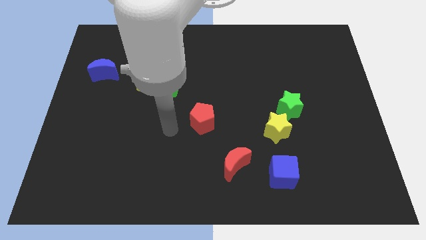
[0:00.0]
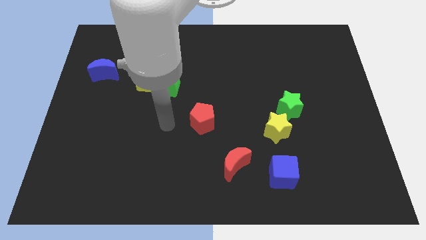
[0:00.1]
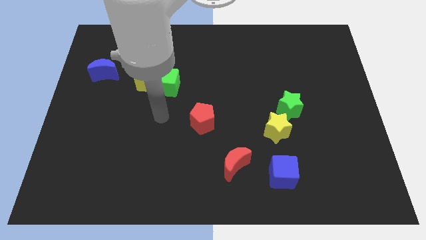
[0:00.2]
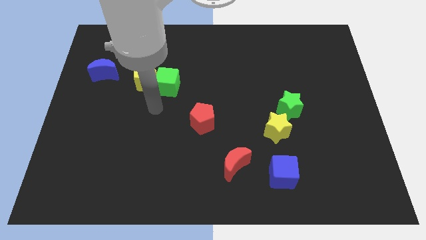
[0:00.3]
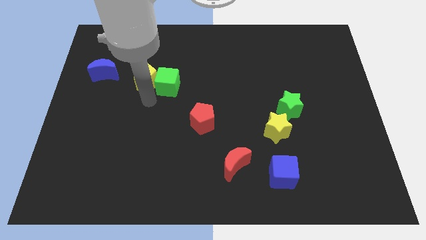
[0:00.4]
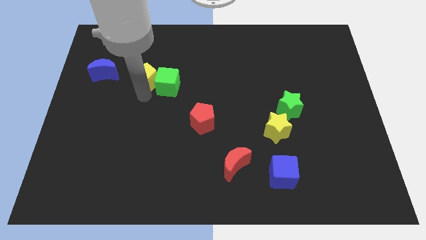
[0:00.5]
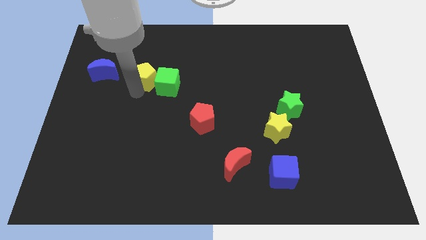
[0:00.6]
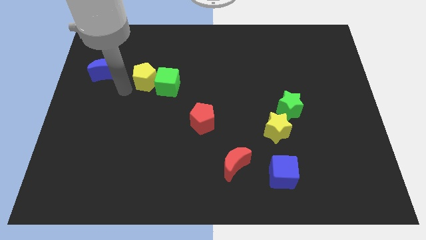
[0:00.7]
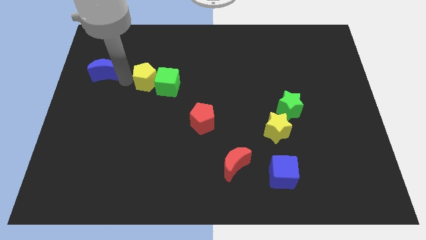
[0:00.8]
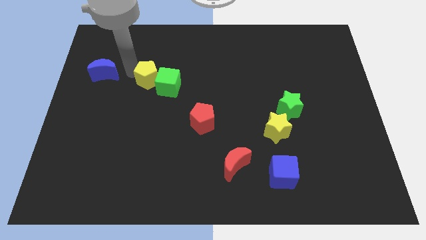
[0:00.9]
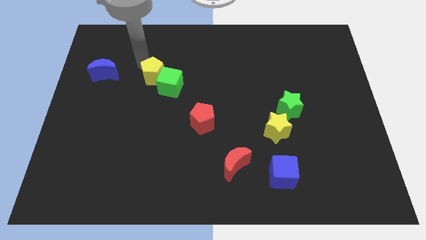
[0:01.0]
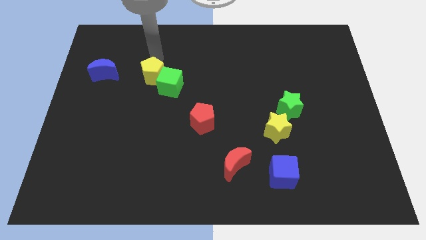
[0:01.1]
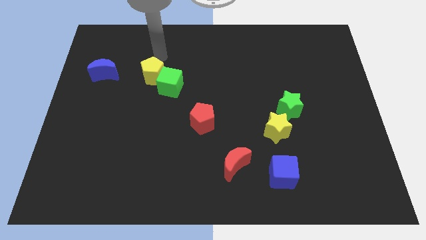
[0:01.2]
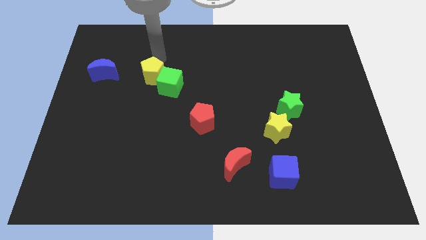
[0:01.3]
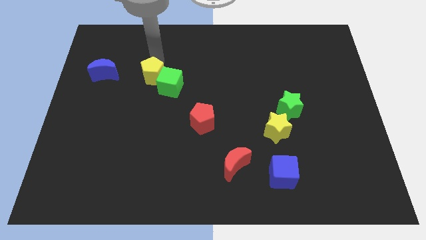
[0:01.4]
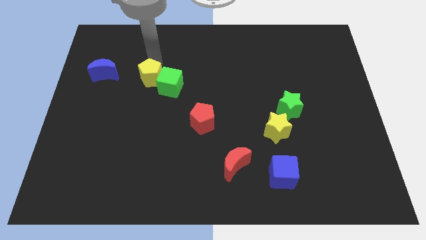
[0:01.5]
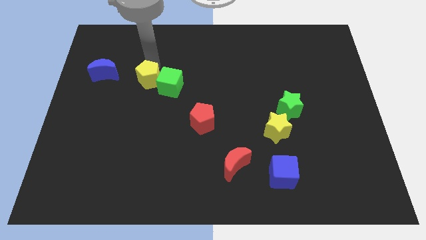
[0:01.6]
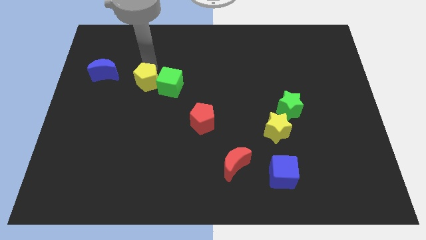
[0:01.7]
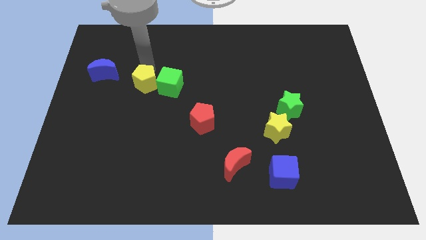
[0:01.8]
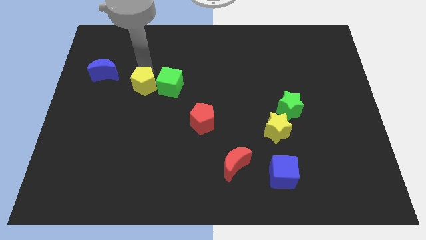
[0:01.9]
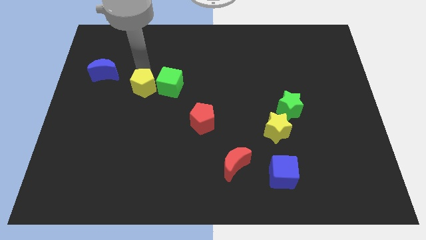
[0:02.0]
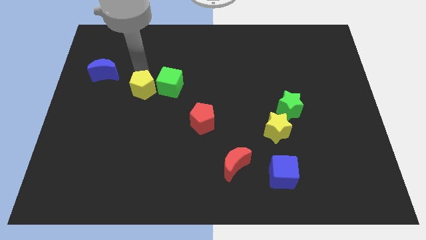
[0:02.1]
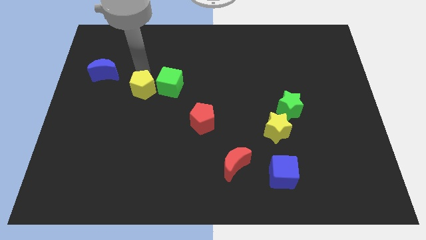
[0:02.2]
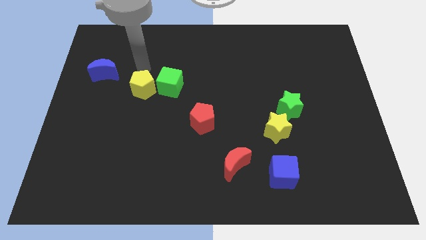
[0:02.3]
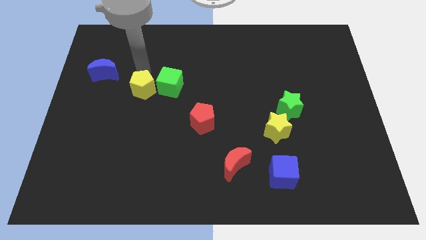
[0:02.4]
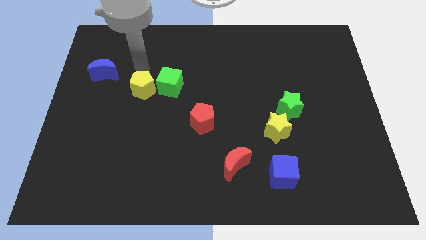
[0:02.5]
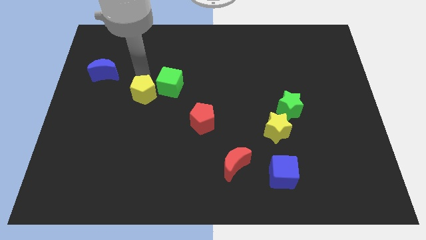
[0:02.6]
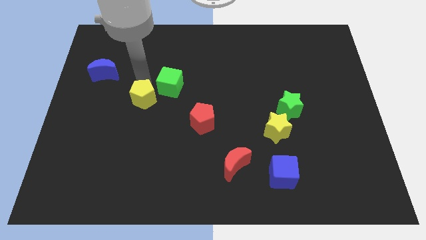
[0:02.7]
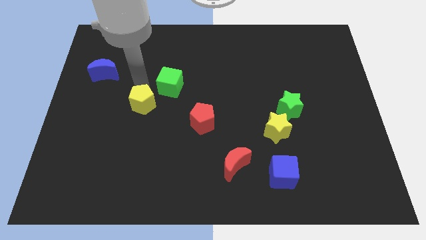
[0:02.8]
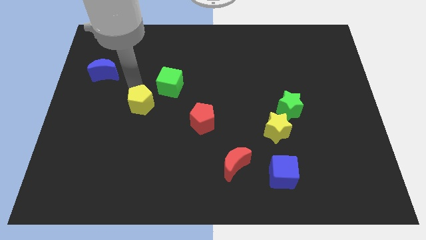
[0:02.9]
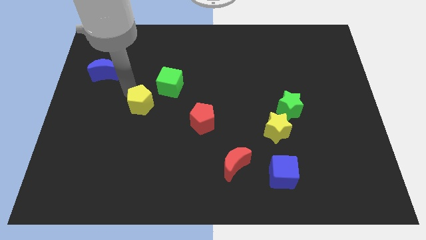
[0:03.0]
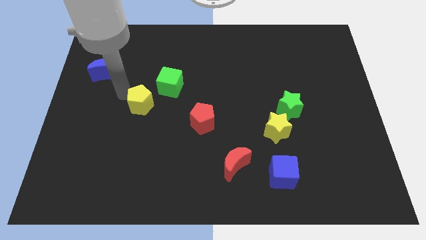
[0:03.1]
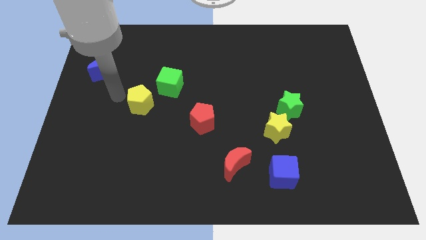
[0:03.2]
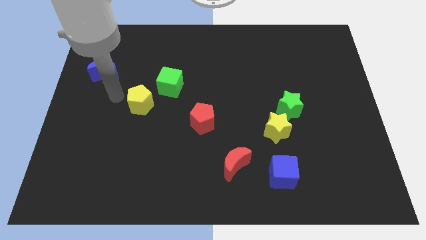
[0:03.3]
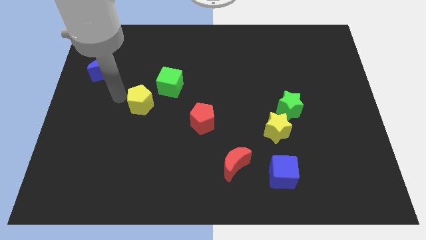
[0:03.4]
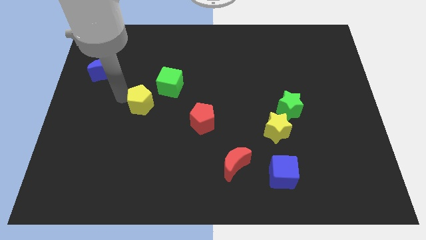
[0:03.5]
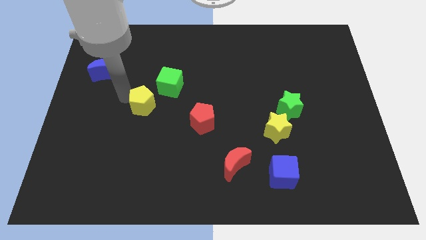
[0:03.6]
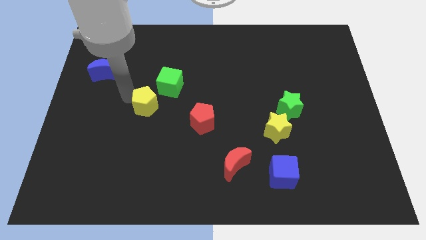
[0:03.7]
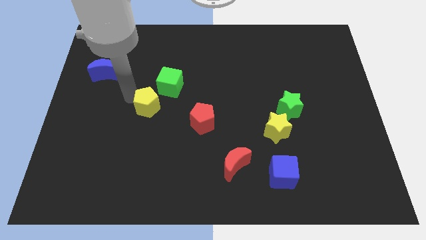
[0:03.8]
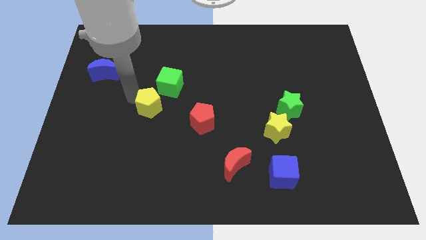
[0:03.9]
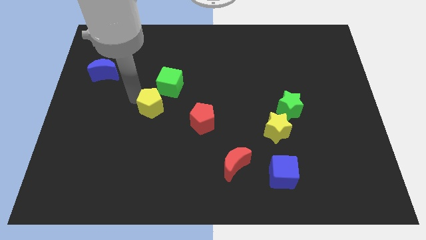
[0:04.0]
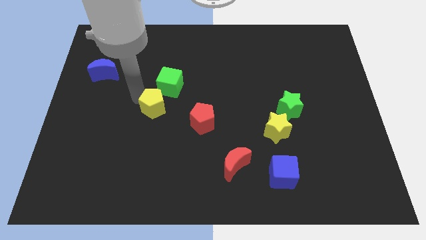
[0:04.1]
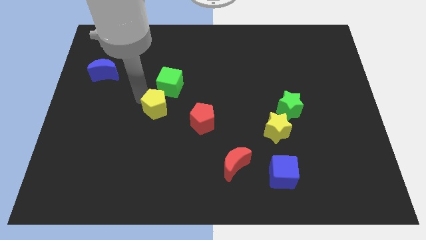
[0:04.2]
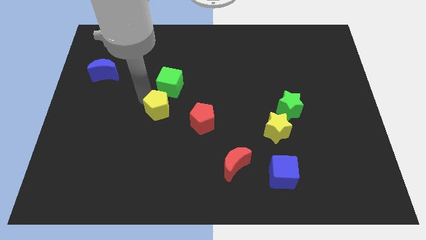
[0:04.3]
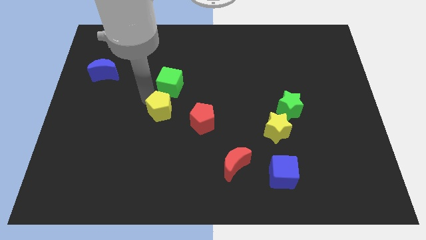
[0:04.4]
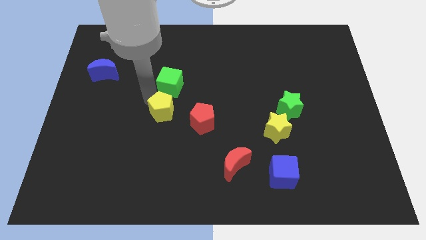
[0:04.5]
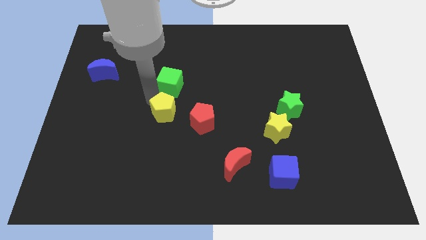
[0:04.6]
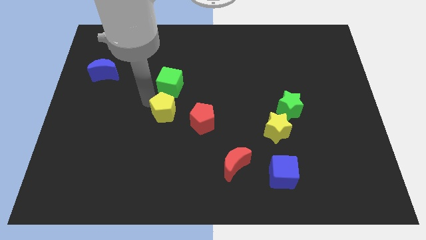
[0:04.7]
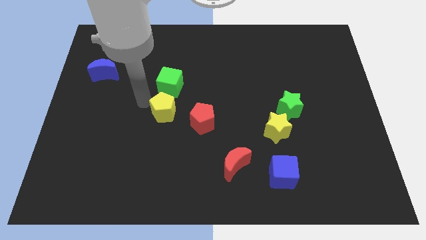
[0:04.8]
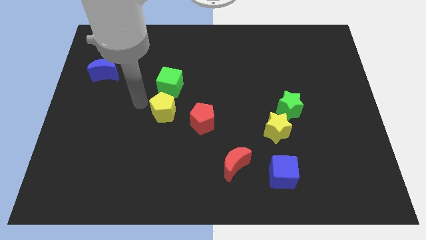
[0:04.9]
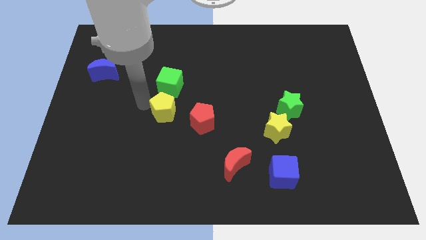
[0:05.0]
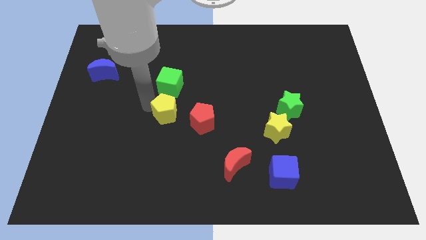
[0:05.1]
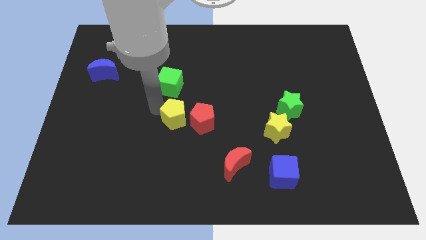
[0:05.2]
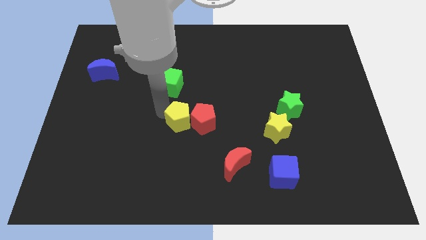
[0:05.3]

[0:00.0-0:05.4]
move the yellow pentagon towards the red pentagon

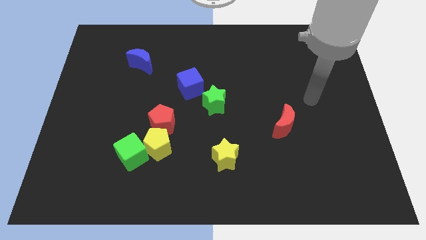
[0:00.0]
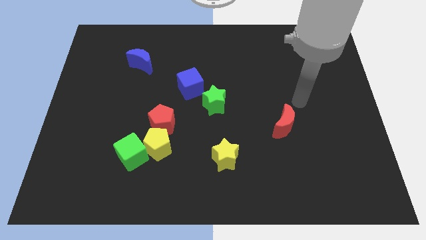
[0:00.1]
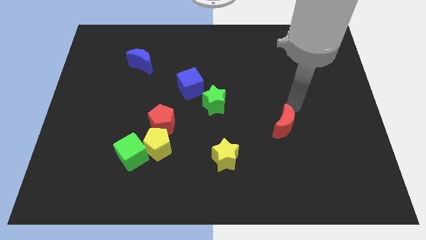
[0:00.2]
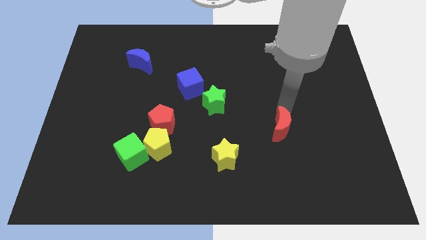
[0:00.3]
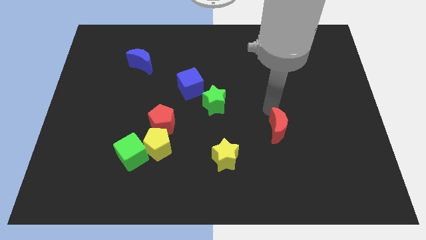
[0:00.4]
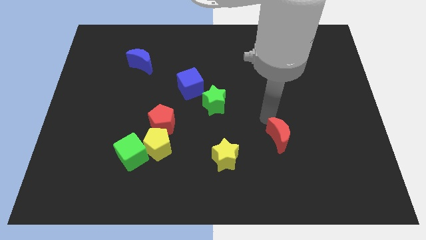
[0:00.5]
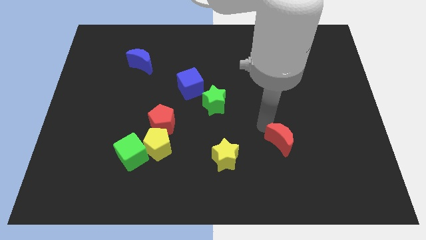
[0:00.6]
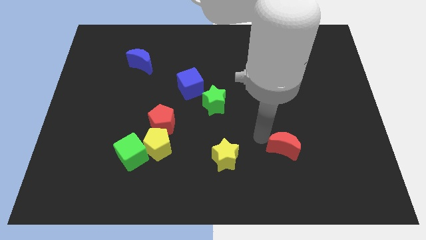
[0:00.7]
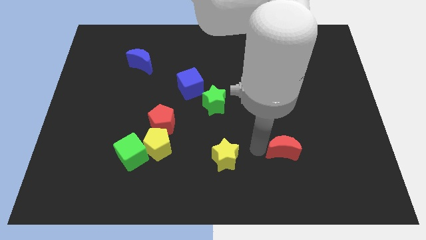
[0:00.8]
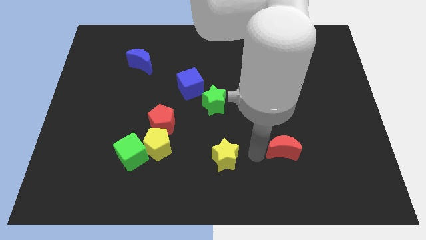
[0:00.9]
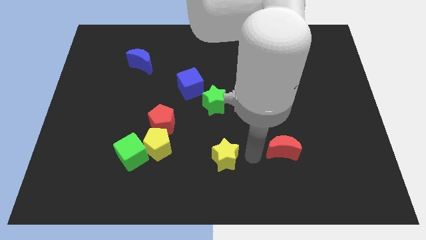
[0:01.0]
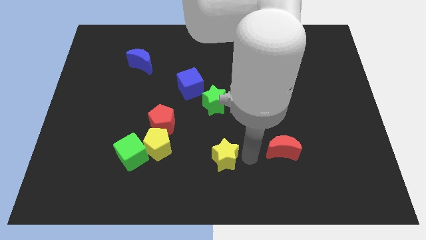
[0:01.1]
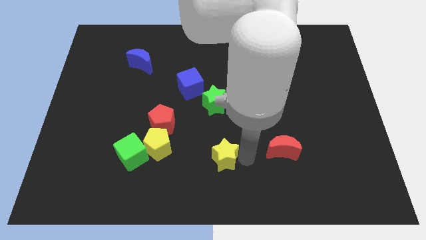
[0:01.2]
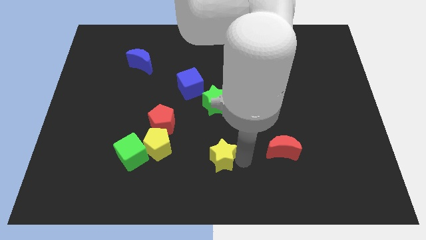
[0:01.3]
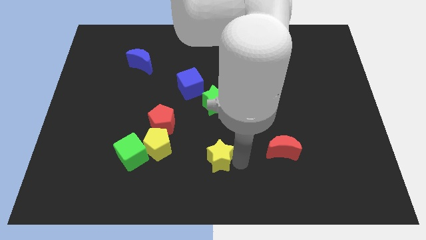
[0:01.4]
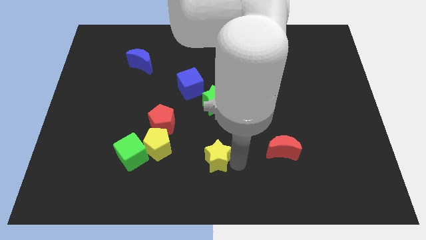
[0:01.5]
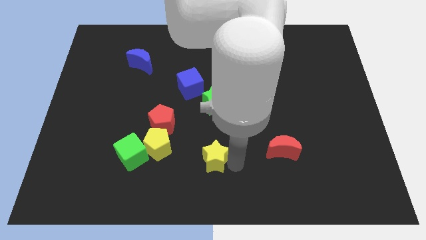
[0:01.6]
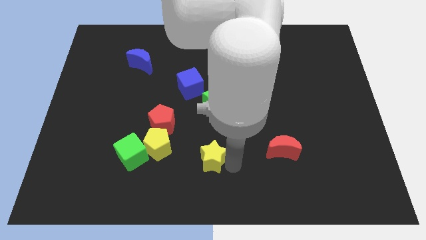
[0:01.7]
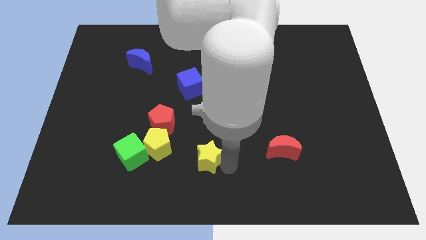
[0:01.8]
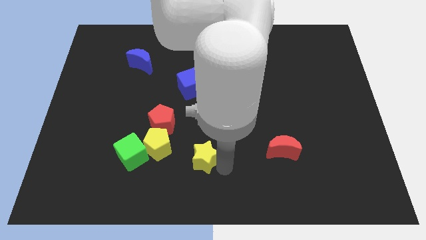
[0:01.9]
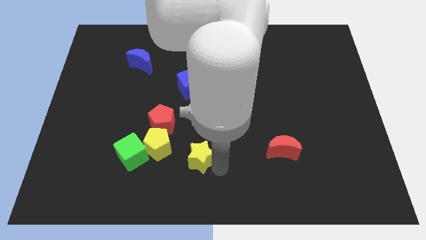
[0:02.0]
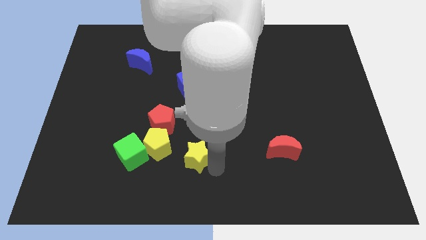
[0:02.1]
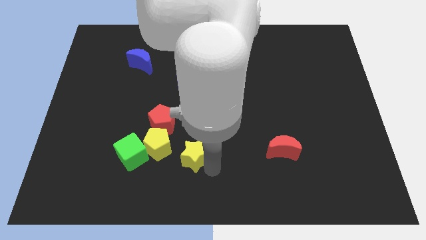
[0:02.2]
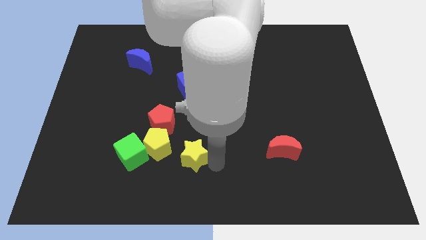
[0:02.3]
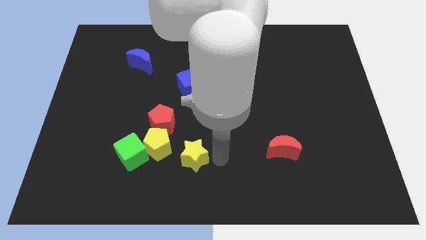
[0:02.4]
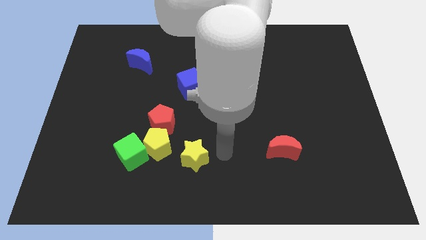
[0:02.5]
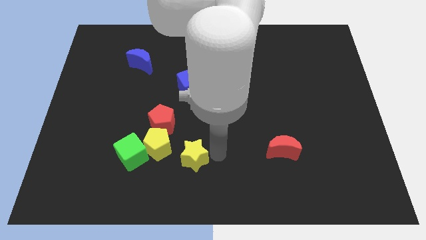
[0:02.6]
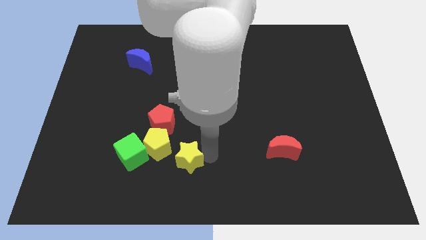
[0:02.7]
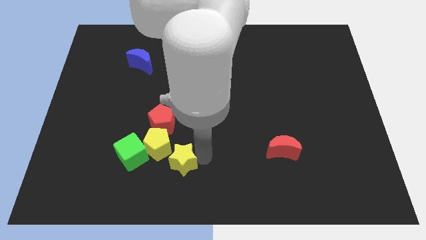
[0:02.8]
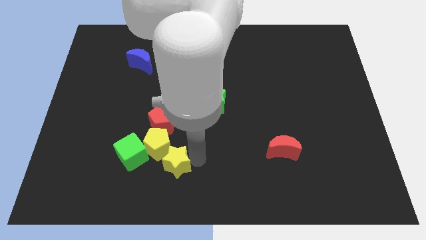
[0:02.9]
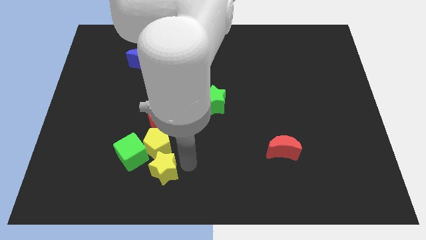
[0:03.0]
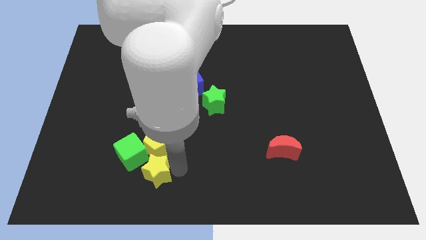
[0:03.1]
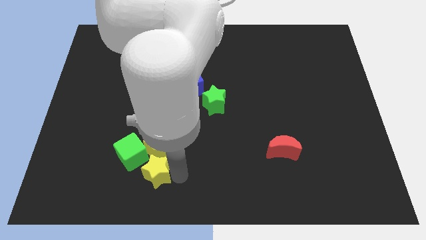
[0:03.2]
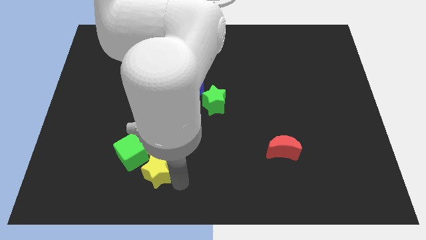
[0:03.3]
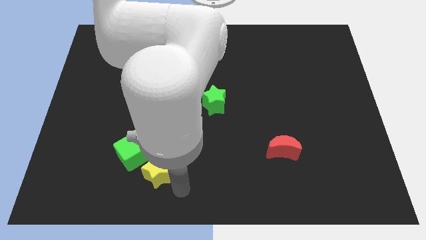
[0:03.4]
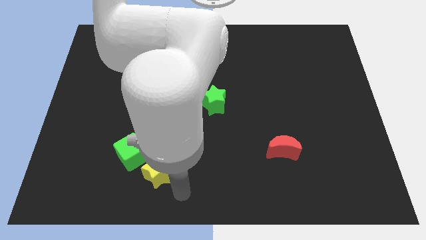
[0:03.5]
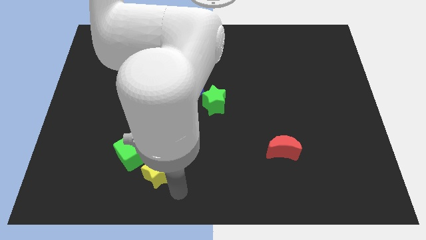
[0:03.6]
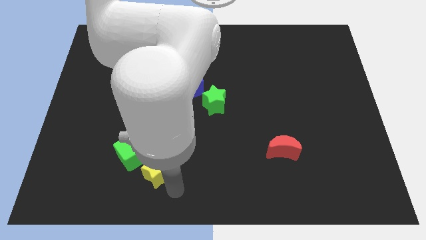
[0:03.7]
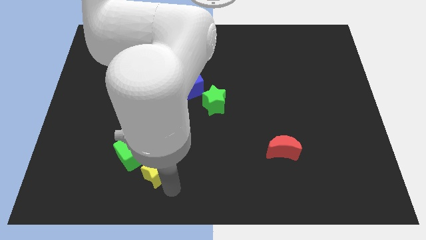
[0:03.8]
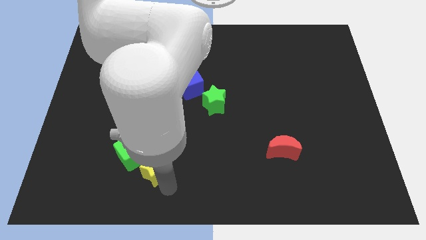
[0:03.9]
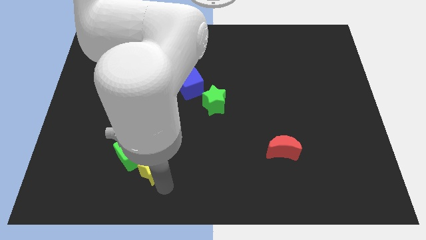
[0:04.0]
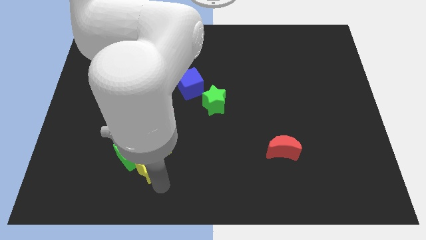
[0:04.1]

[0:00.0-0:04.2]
slide the yellow star to the green cube
